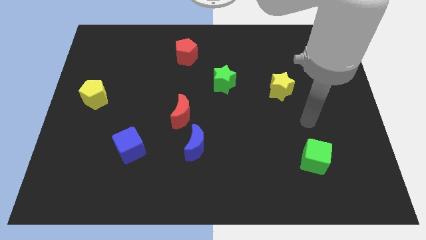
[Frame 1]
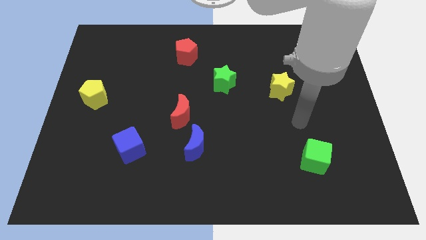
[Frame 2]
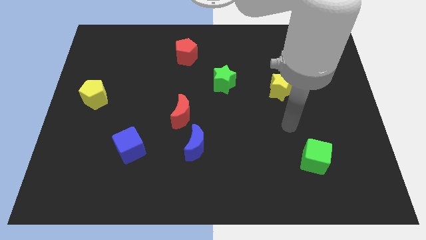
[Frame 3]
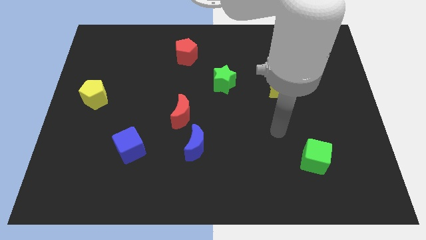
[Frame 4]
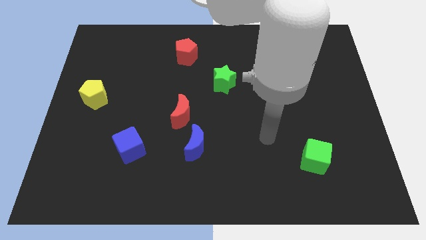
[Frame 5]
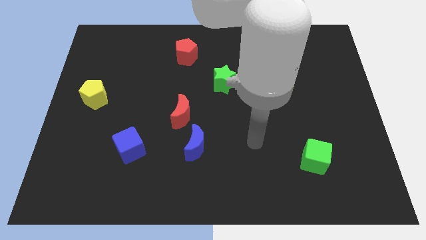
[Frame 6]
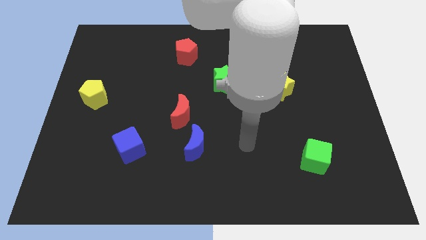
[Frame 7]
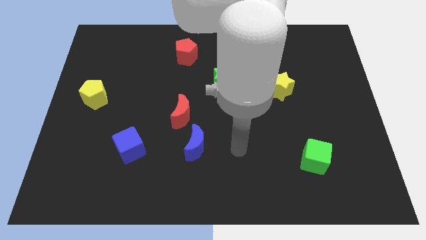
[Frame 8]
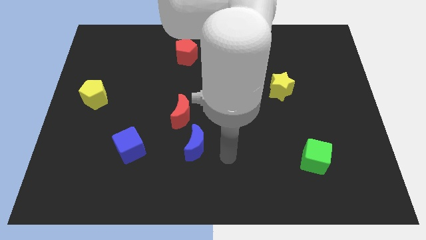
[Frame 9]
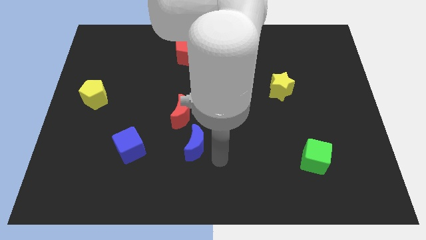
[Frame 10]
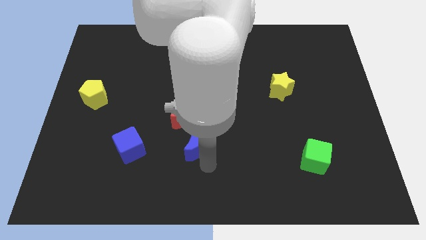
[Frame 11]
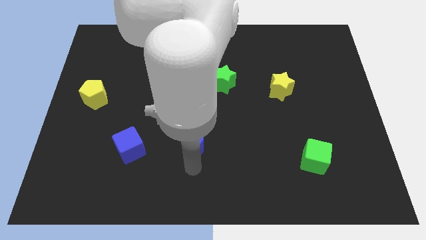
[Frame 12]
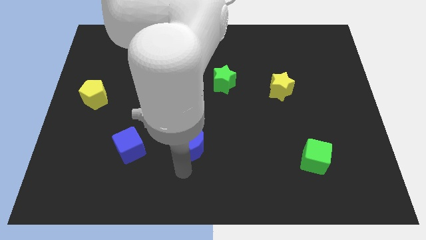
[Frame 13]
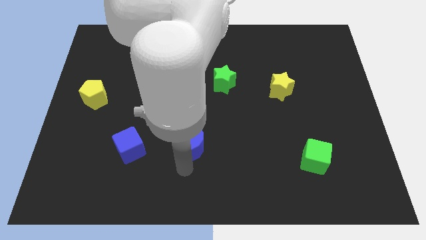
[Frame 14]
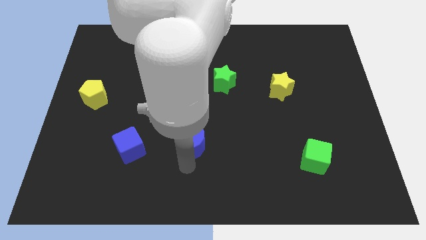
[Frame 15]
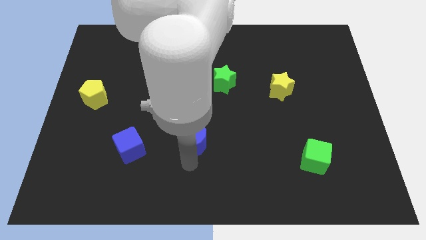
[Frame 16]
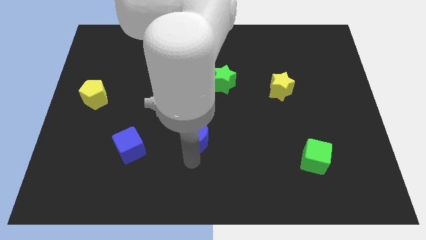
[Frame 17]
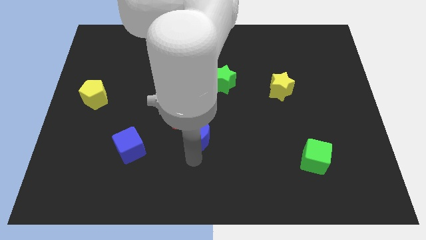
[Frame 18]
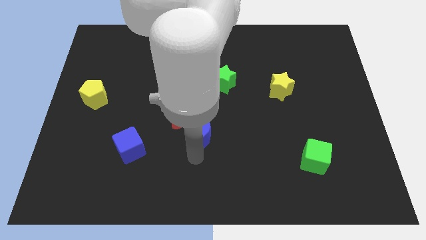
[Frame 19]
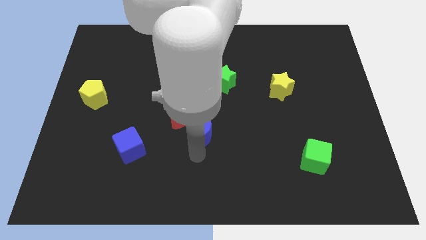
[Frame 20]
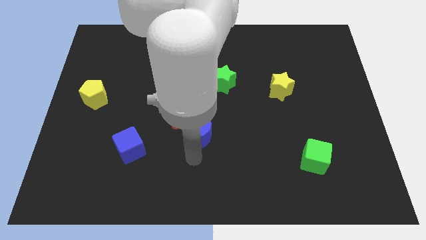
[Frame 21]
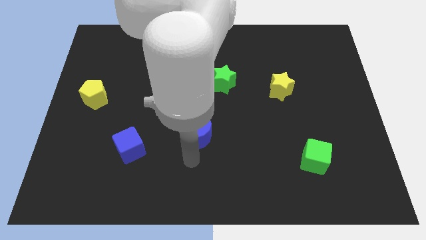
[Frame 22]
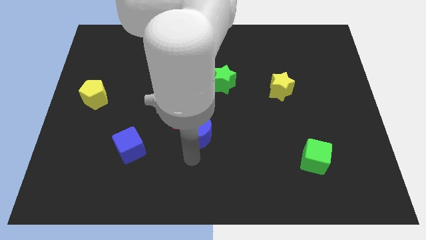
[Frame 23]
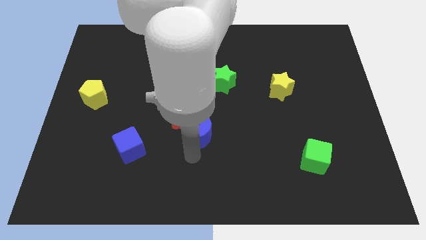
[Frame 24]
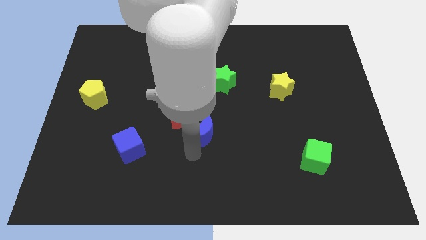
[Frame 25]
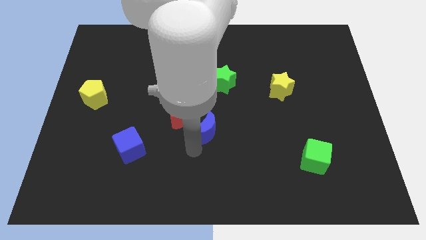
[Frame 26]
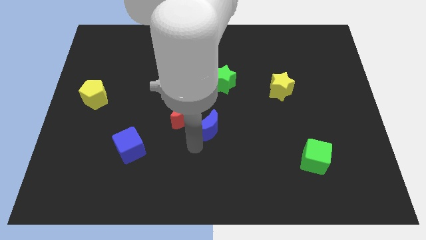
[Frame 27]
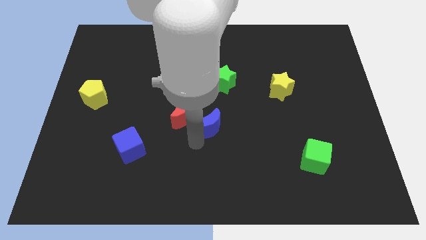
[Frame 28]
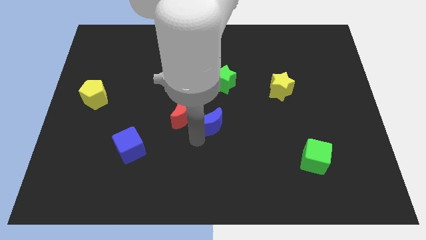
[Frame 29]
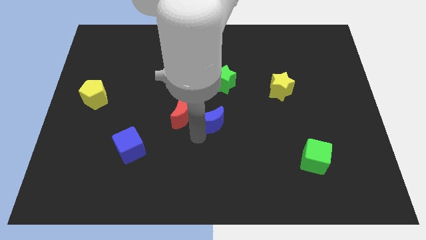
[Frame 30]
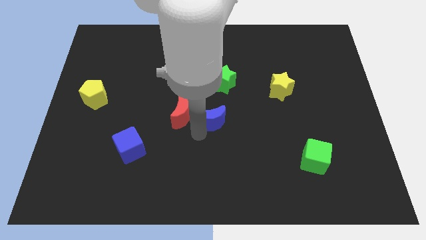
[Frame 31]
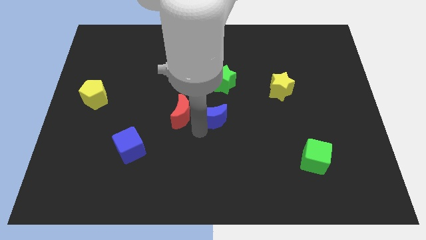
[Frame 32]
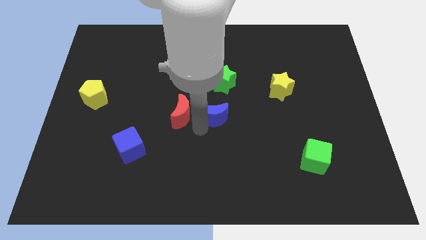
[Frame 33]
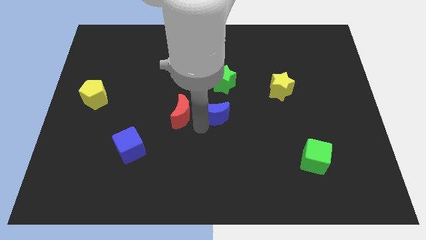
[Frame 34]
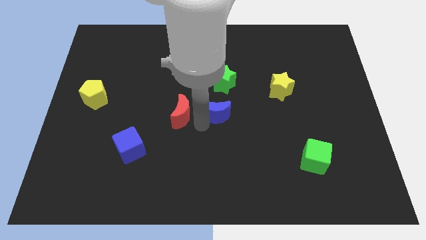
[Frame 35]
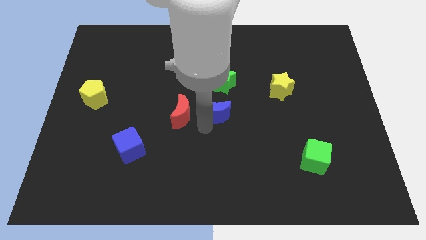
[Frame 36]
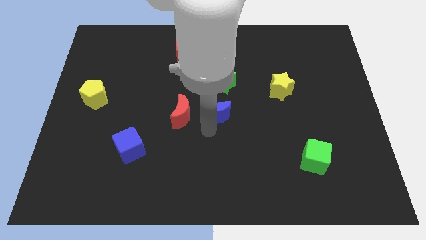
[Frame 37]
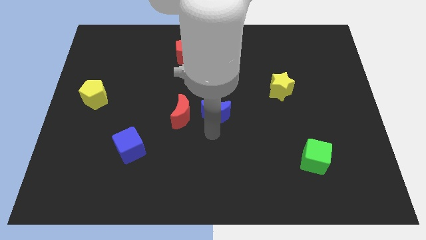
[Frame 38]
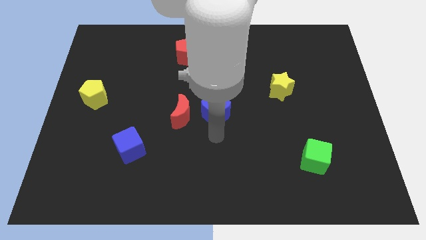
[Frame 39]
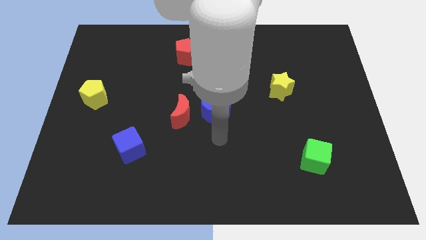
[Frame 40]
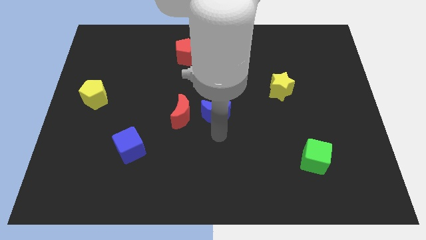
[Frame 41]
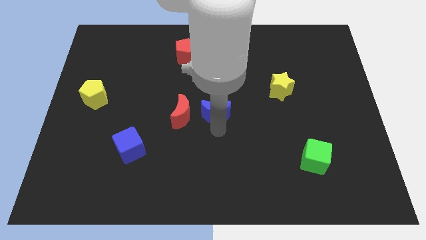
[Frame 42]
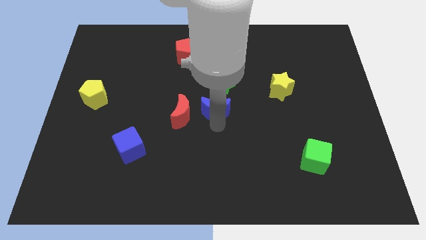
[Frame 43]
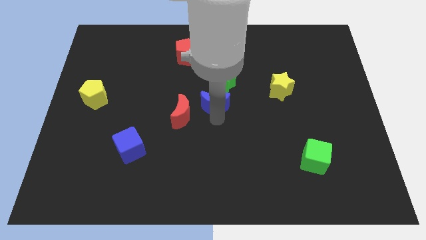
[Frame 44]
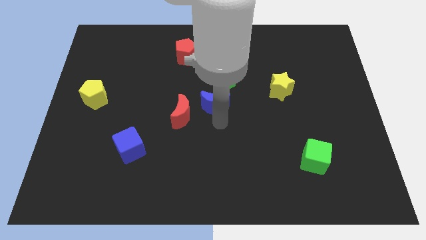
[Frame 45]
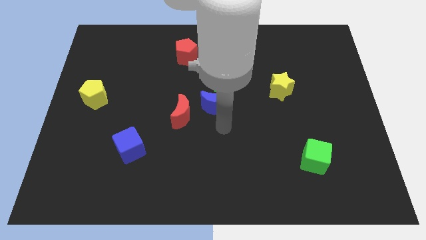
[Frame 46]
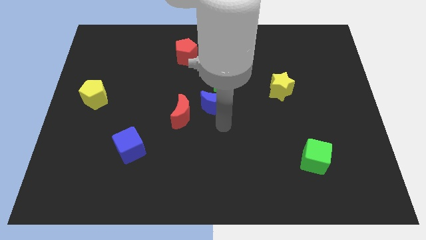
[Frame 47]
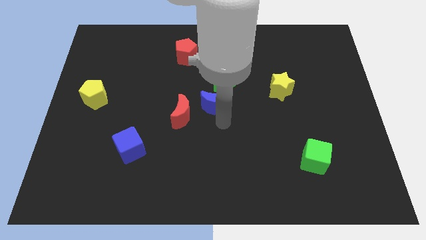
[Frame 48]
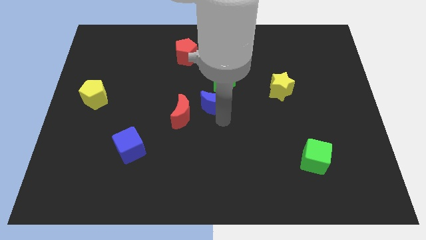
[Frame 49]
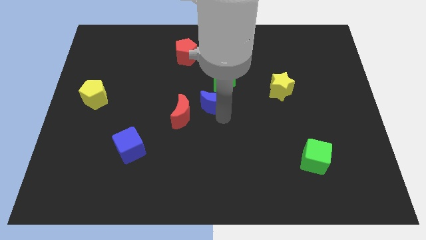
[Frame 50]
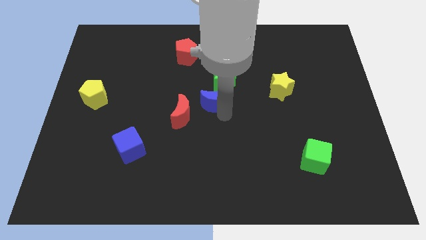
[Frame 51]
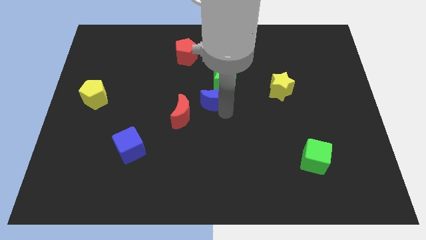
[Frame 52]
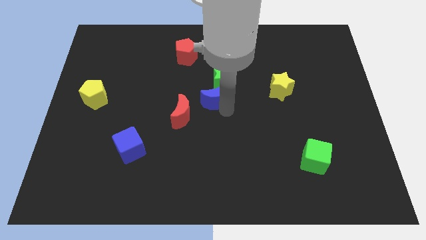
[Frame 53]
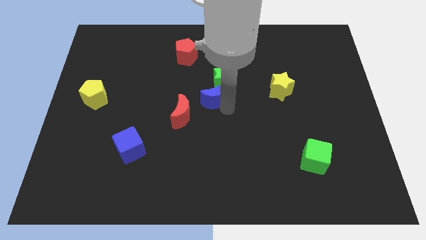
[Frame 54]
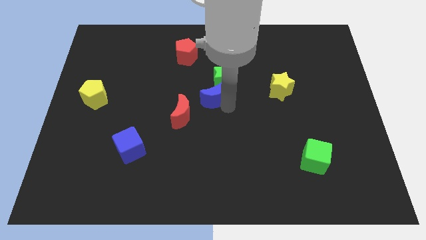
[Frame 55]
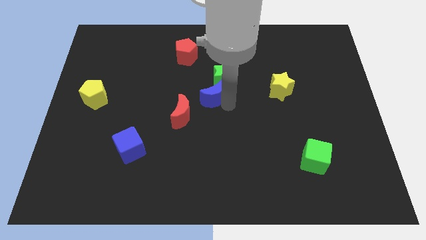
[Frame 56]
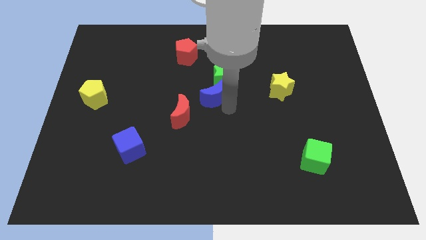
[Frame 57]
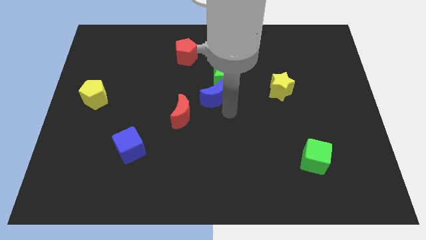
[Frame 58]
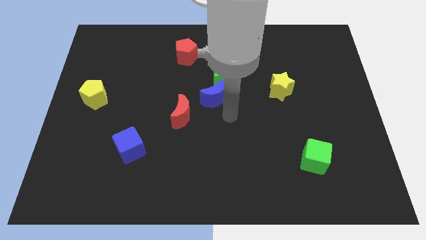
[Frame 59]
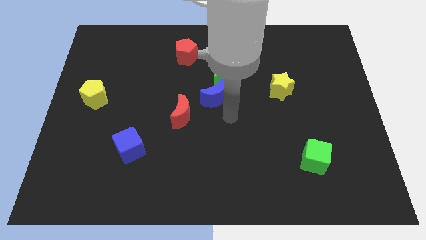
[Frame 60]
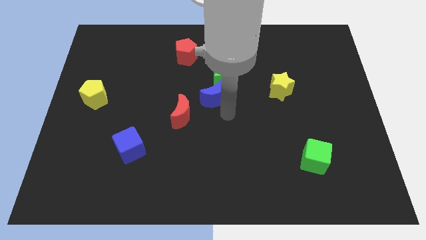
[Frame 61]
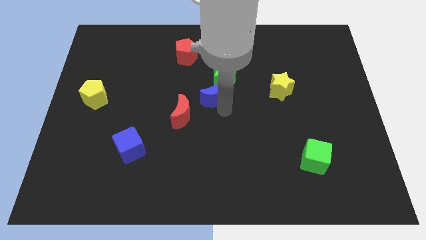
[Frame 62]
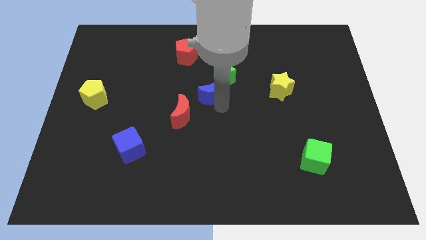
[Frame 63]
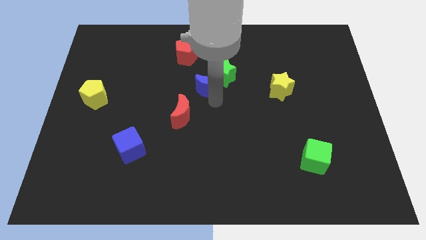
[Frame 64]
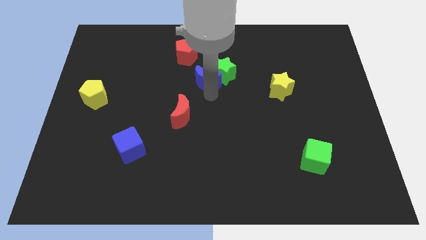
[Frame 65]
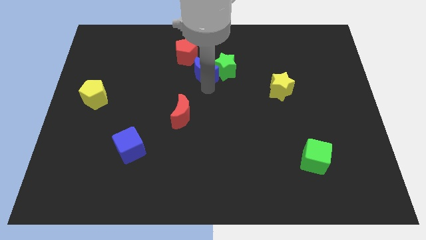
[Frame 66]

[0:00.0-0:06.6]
move the blue moon diagonally up and to the left of the green star
